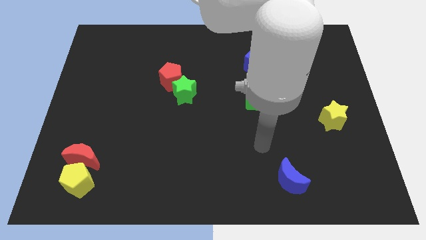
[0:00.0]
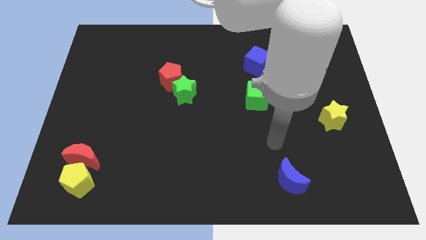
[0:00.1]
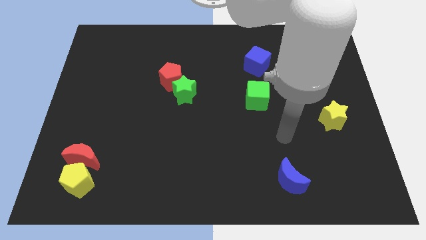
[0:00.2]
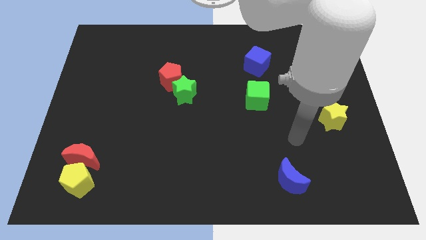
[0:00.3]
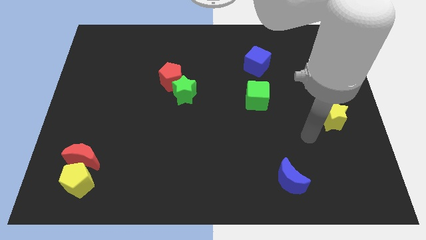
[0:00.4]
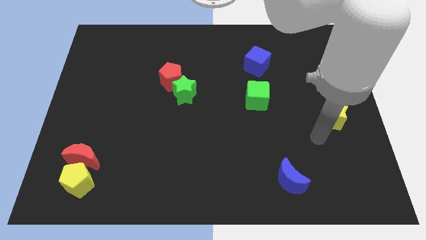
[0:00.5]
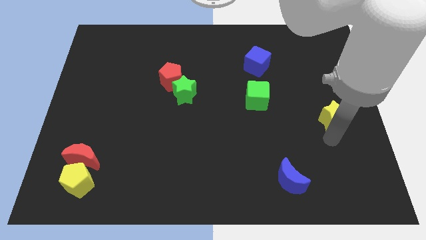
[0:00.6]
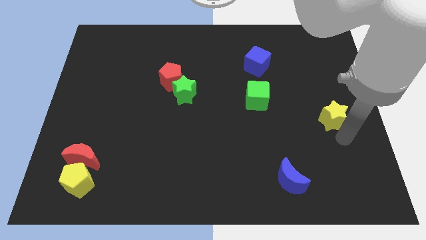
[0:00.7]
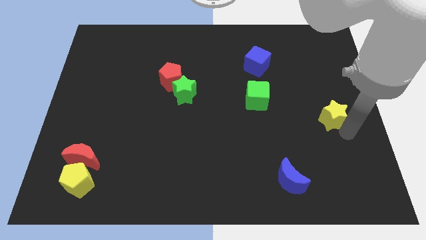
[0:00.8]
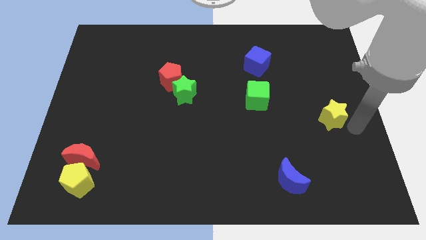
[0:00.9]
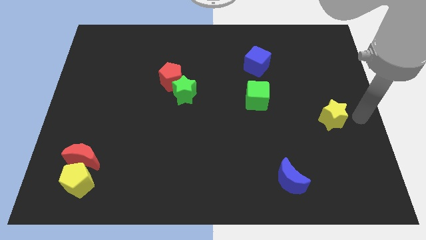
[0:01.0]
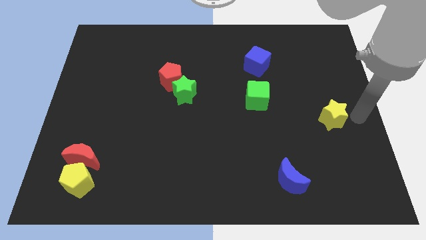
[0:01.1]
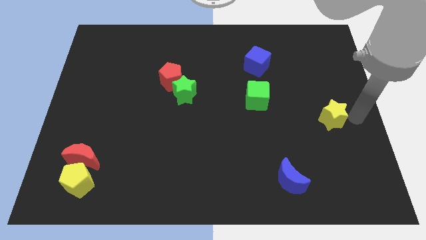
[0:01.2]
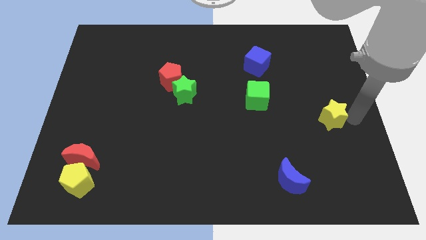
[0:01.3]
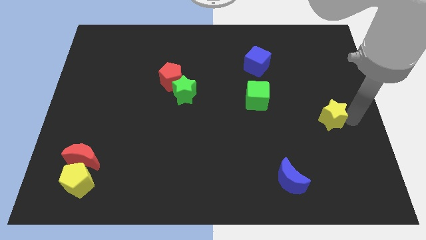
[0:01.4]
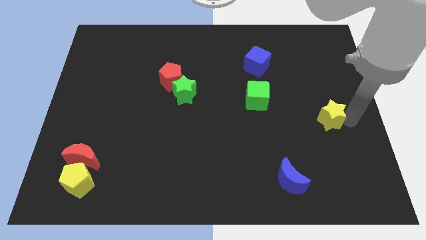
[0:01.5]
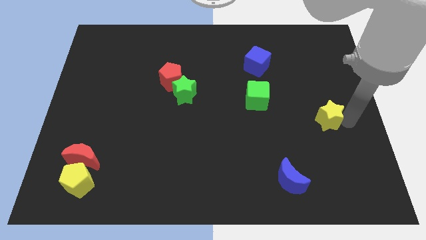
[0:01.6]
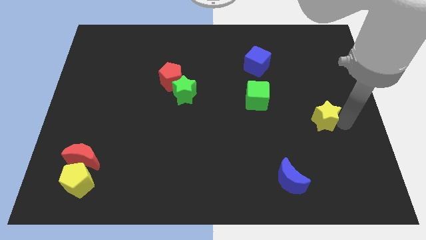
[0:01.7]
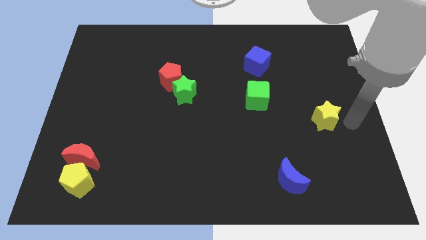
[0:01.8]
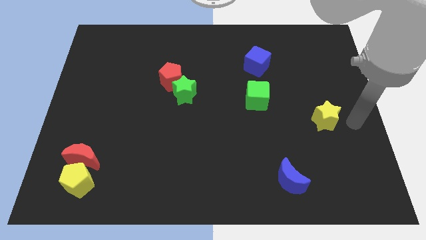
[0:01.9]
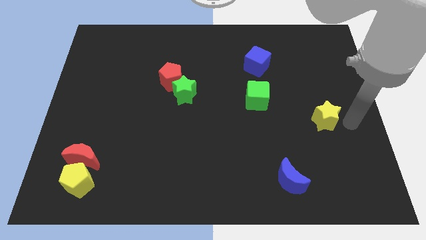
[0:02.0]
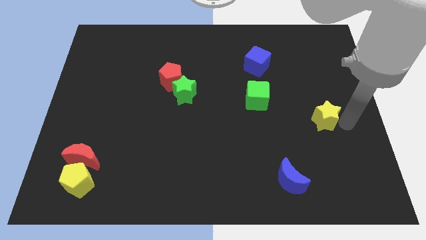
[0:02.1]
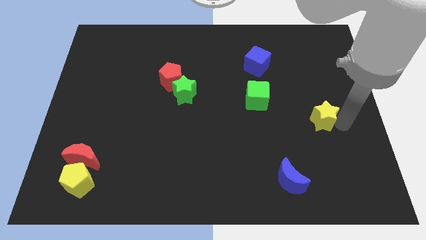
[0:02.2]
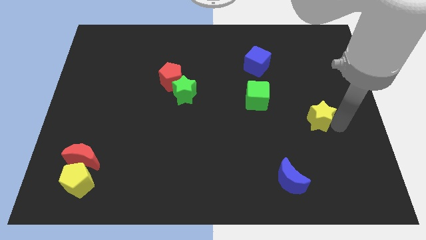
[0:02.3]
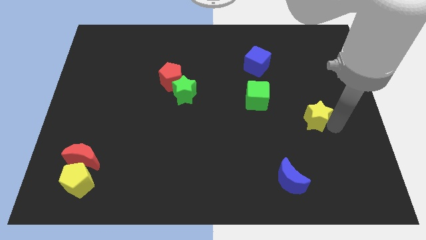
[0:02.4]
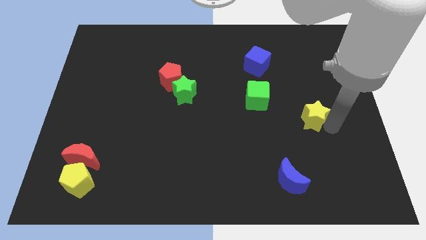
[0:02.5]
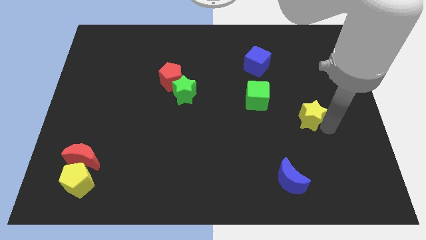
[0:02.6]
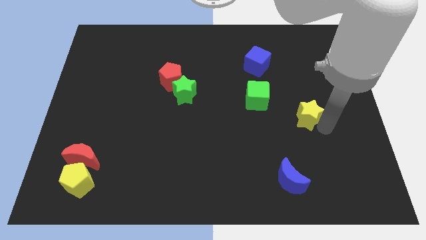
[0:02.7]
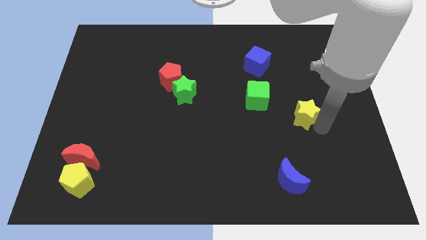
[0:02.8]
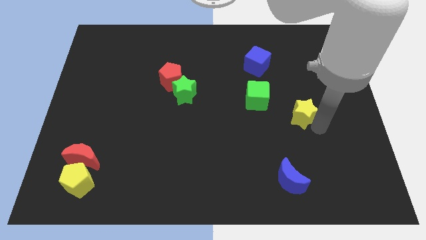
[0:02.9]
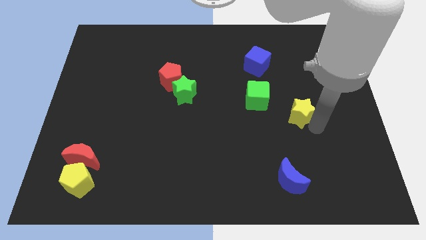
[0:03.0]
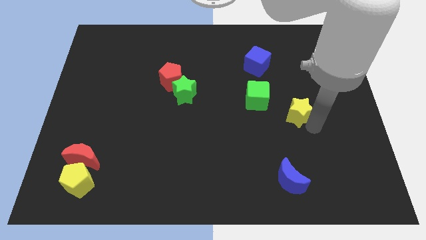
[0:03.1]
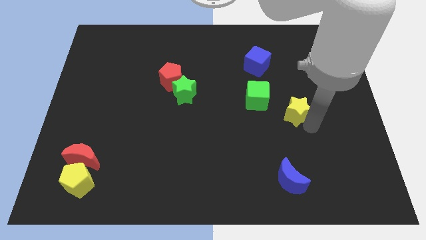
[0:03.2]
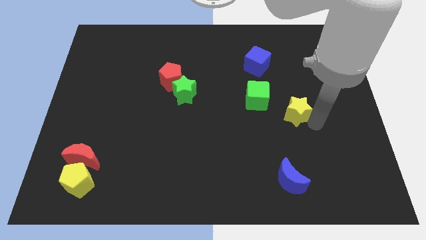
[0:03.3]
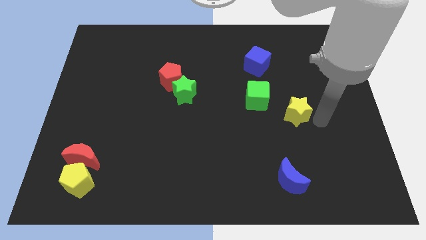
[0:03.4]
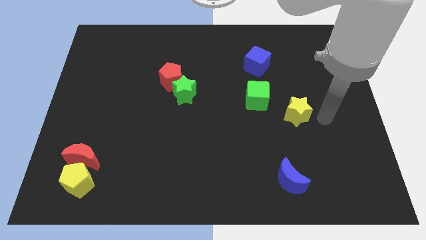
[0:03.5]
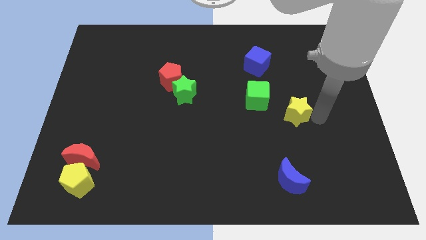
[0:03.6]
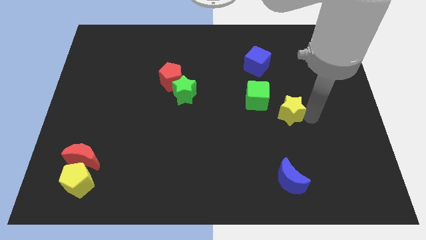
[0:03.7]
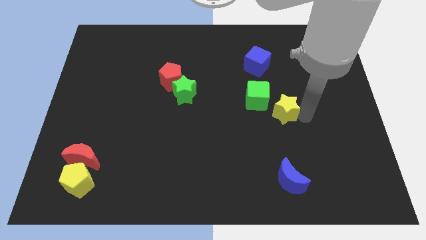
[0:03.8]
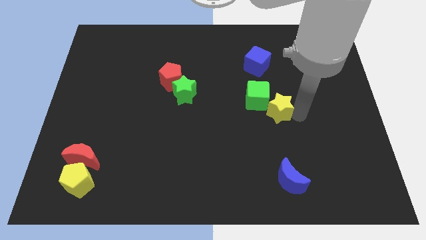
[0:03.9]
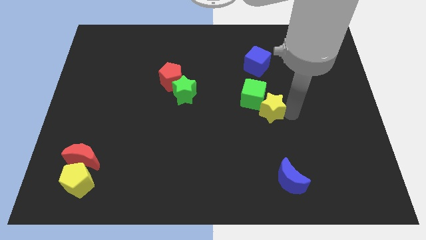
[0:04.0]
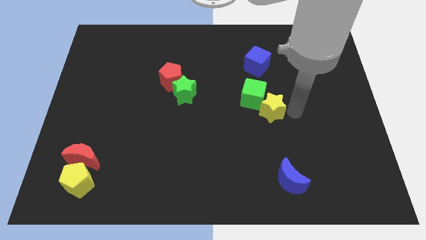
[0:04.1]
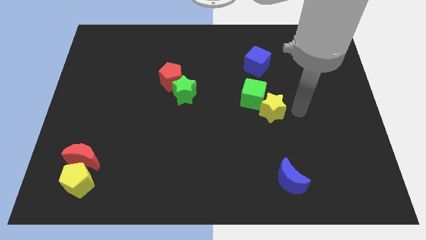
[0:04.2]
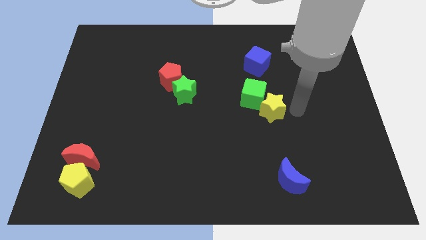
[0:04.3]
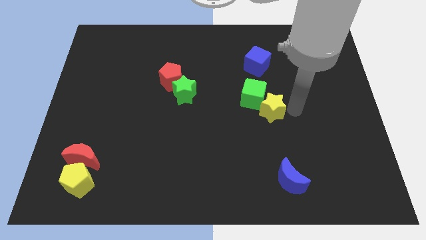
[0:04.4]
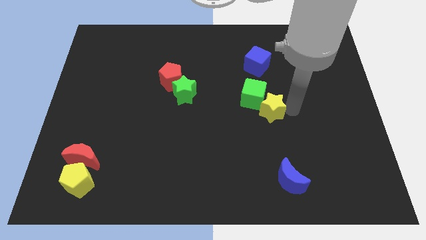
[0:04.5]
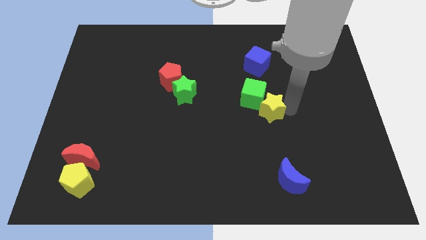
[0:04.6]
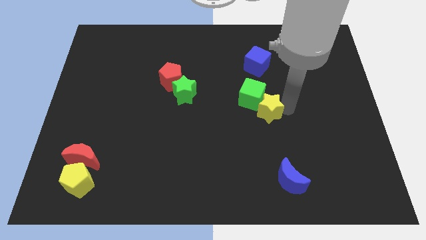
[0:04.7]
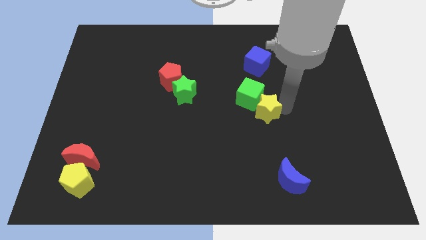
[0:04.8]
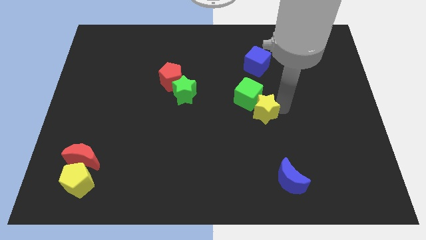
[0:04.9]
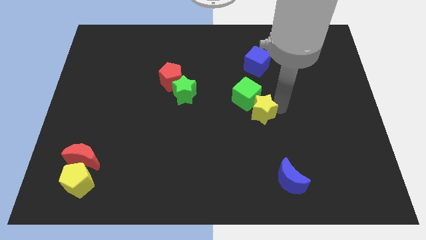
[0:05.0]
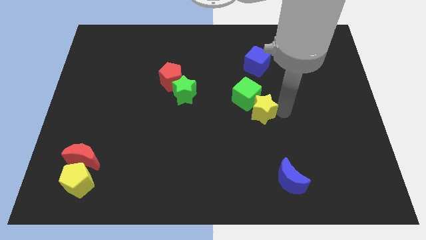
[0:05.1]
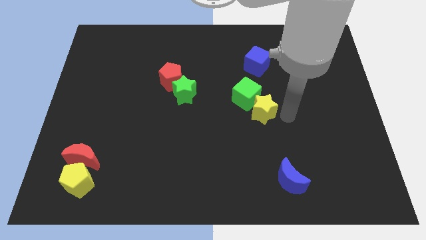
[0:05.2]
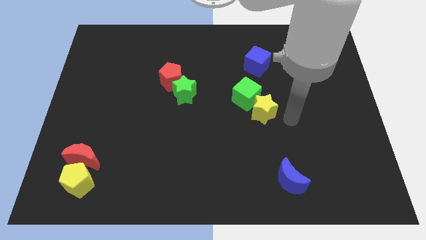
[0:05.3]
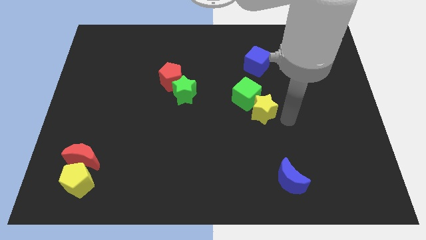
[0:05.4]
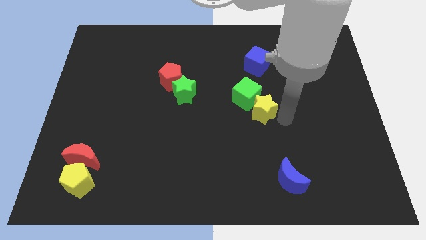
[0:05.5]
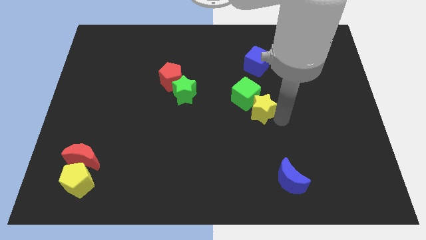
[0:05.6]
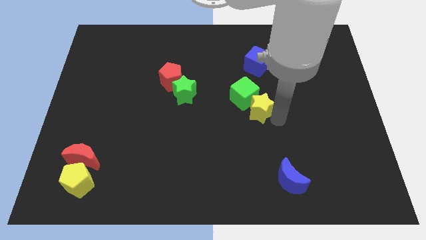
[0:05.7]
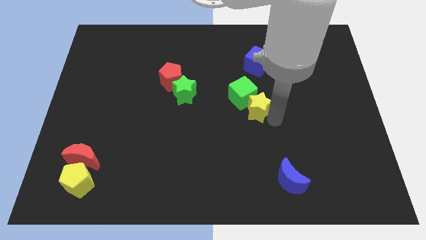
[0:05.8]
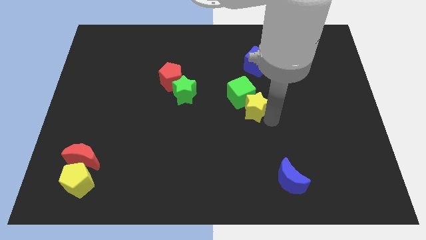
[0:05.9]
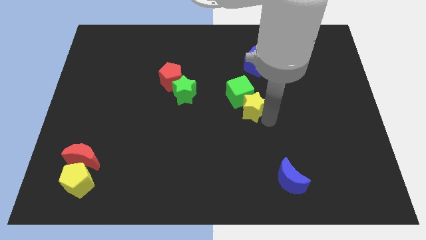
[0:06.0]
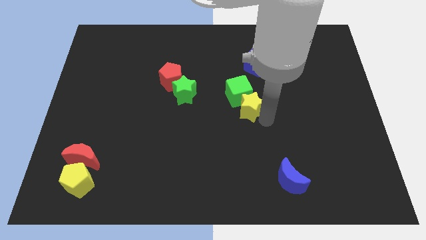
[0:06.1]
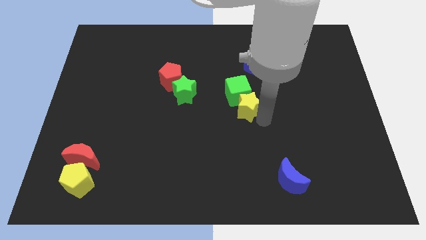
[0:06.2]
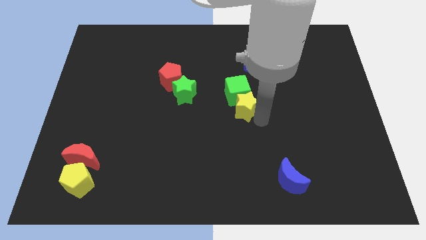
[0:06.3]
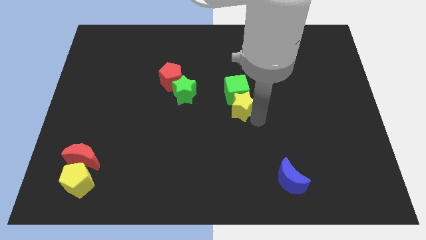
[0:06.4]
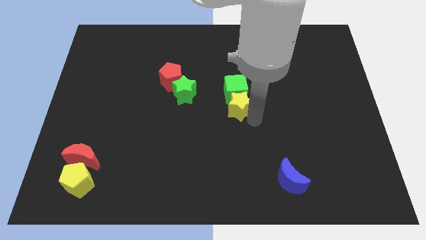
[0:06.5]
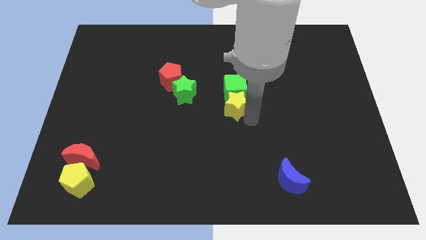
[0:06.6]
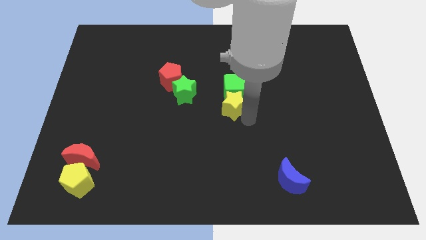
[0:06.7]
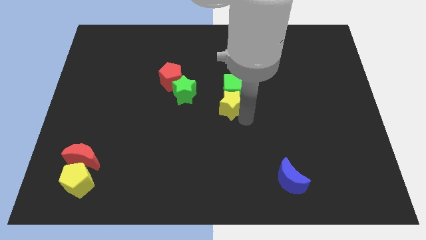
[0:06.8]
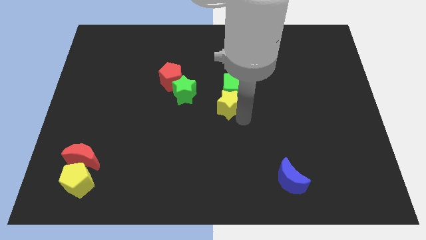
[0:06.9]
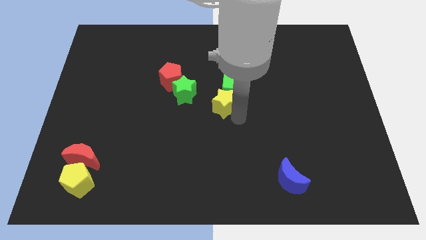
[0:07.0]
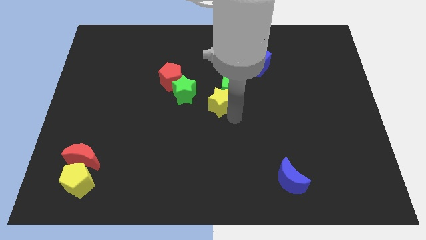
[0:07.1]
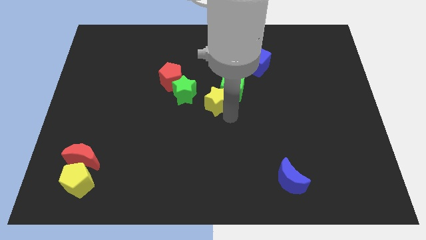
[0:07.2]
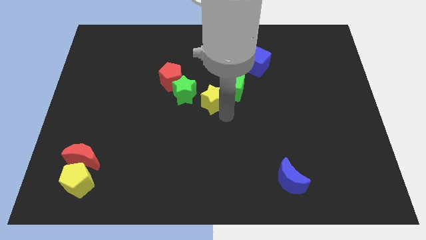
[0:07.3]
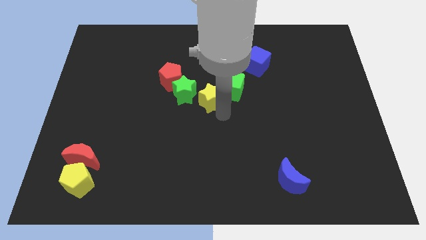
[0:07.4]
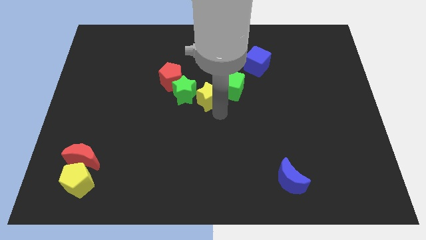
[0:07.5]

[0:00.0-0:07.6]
push the yellow star close to the green star
